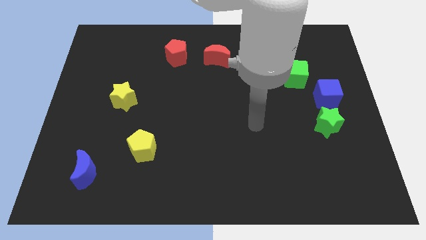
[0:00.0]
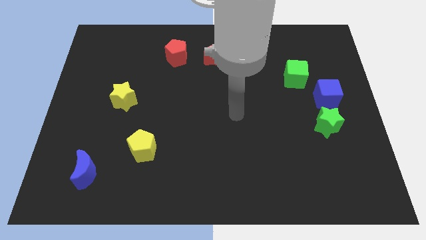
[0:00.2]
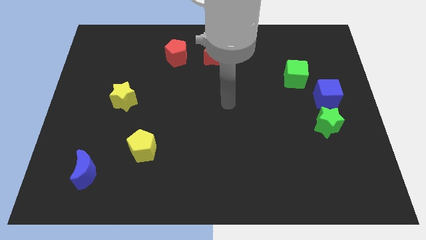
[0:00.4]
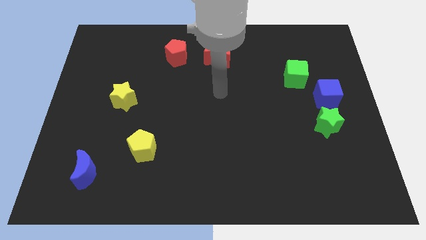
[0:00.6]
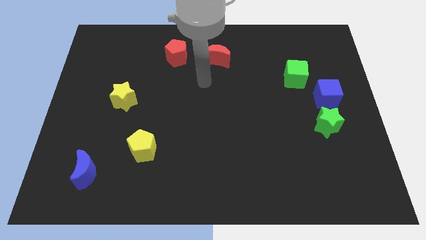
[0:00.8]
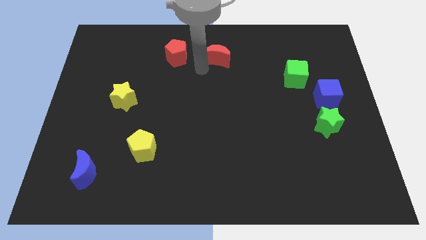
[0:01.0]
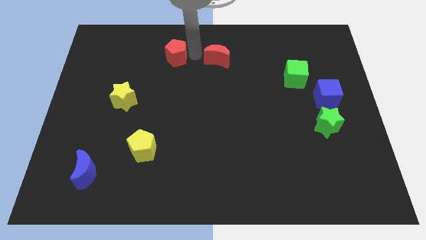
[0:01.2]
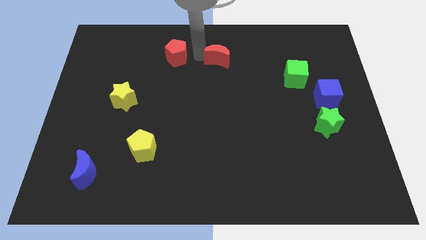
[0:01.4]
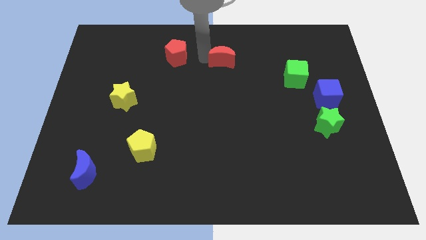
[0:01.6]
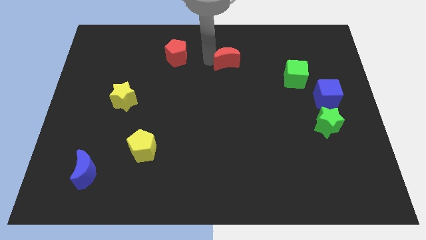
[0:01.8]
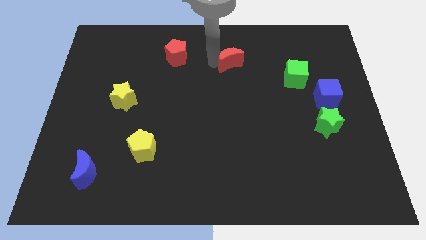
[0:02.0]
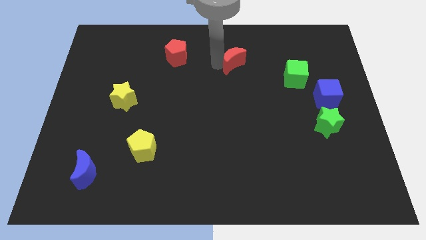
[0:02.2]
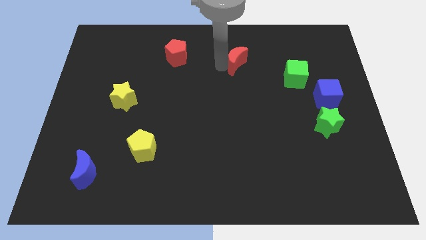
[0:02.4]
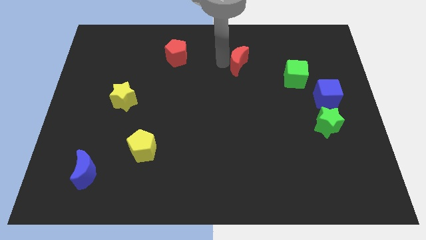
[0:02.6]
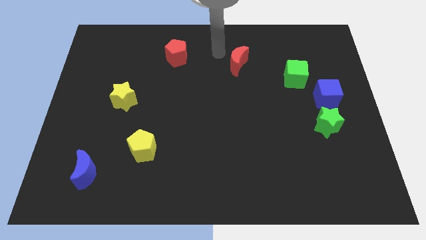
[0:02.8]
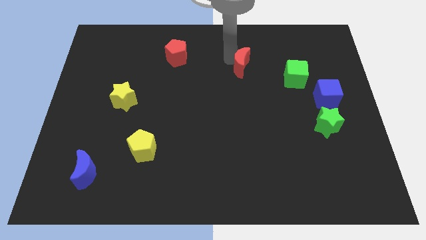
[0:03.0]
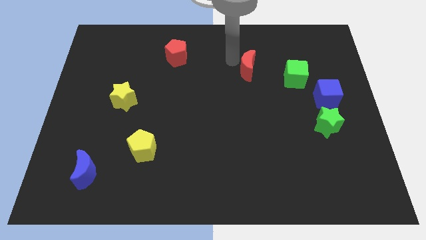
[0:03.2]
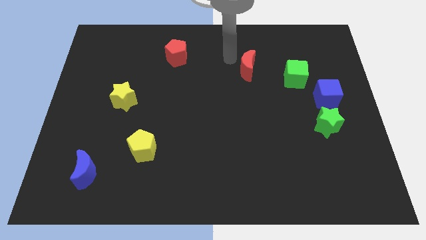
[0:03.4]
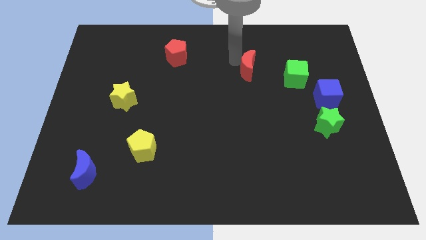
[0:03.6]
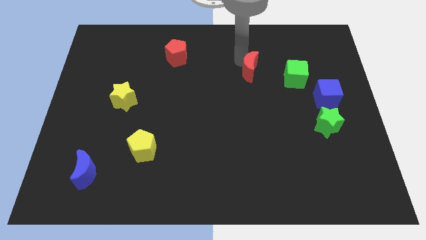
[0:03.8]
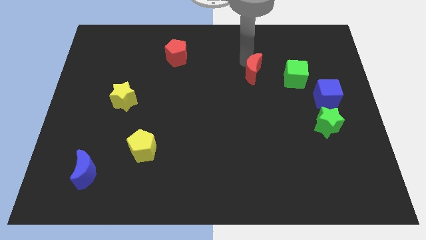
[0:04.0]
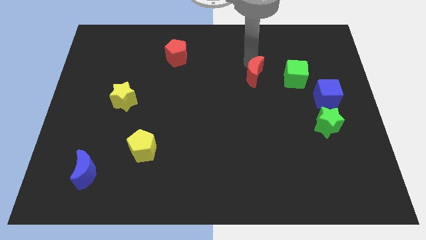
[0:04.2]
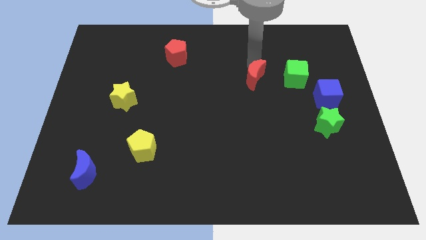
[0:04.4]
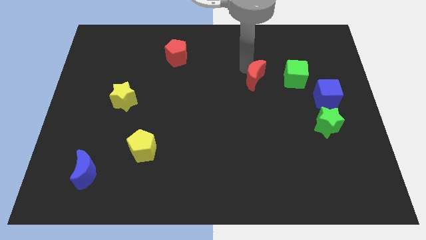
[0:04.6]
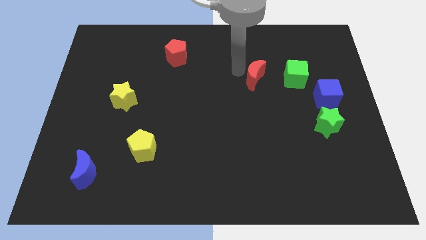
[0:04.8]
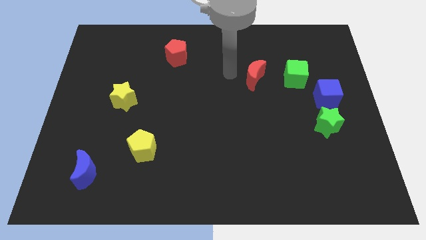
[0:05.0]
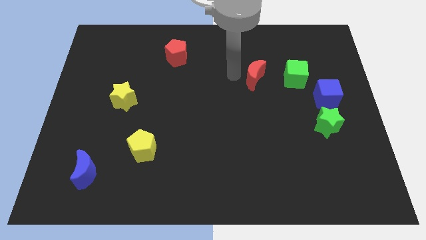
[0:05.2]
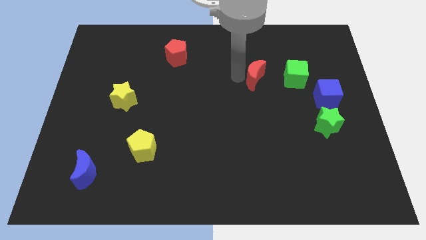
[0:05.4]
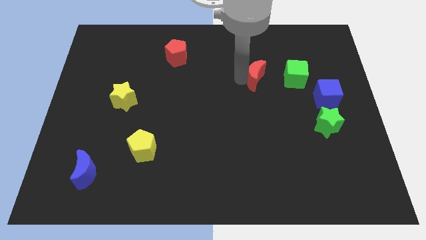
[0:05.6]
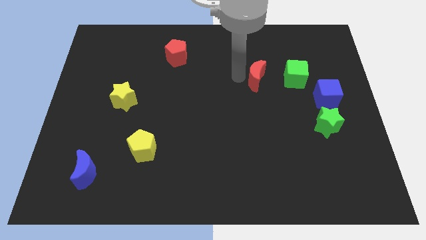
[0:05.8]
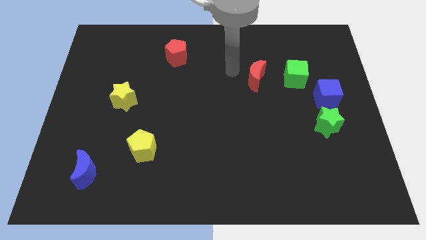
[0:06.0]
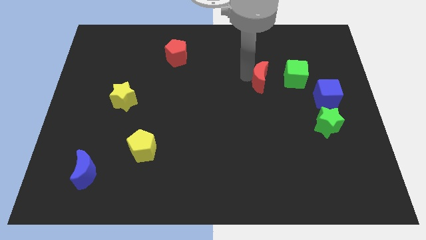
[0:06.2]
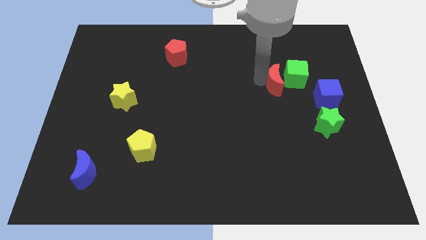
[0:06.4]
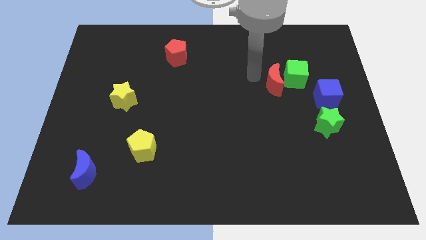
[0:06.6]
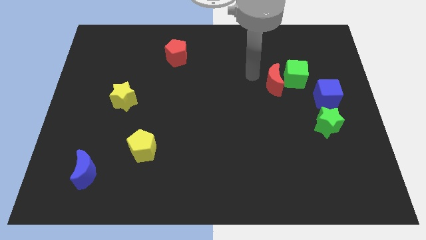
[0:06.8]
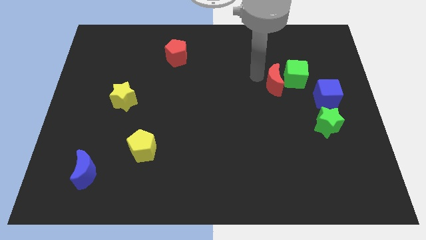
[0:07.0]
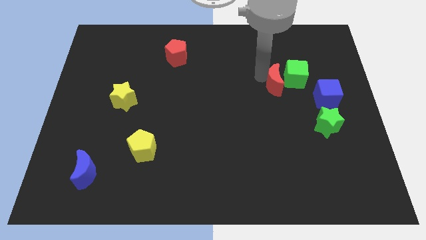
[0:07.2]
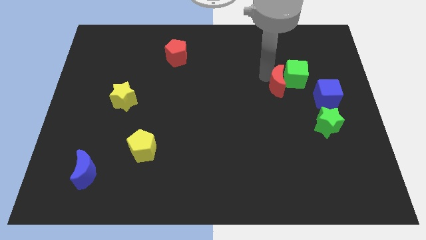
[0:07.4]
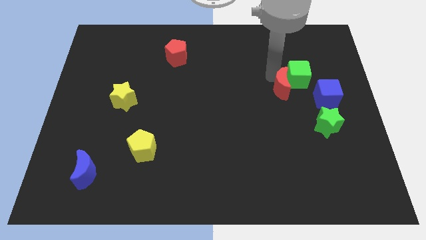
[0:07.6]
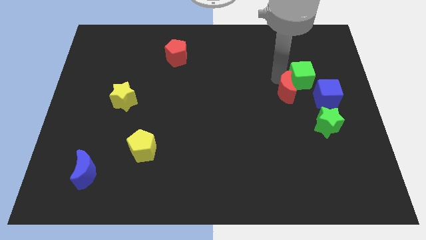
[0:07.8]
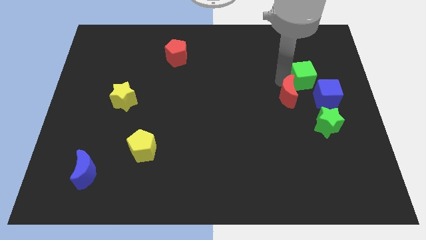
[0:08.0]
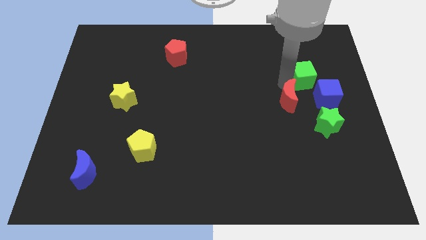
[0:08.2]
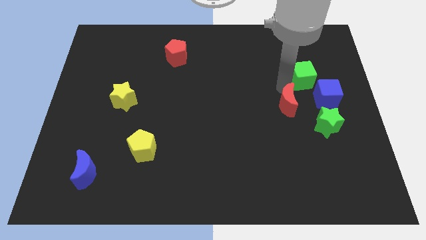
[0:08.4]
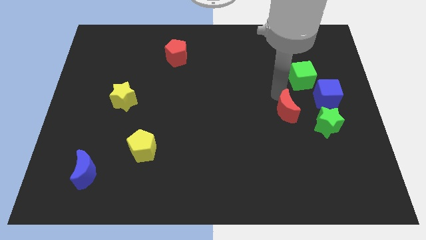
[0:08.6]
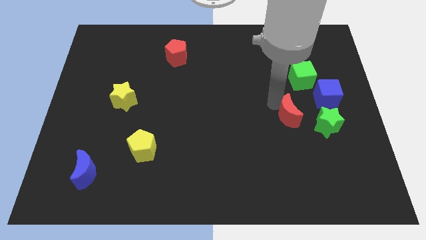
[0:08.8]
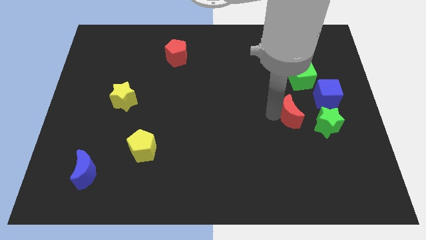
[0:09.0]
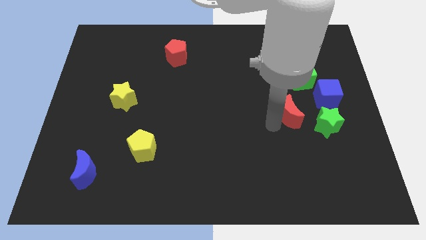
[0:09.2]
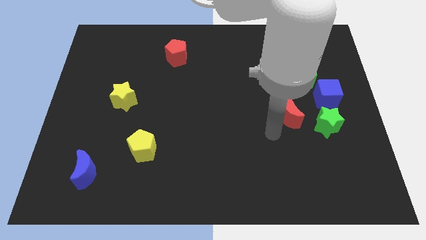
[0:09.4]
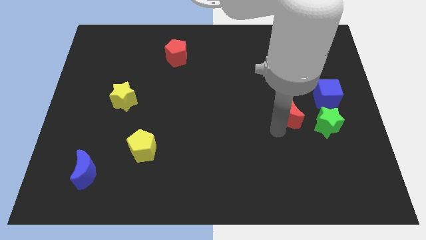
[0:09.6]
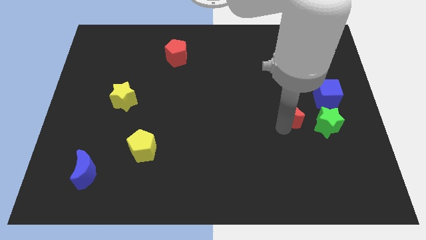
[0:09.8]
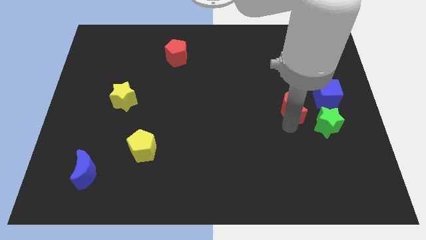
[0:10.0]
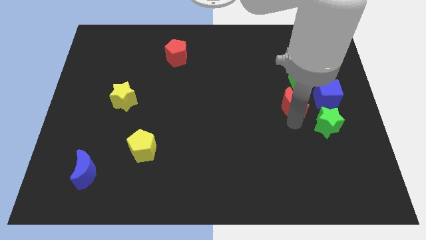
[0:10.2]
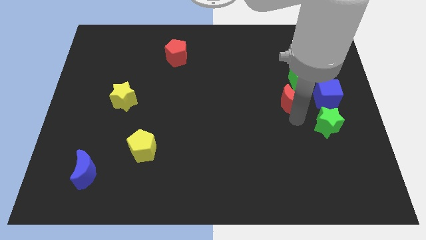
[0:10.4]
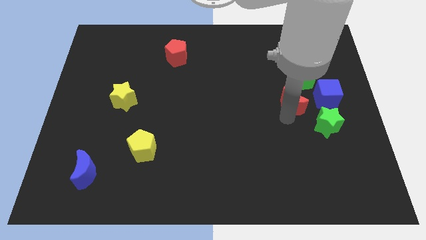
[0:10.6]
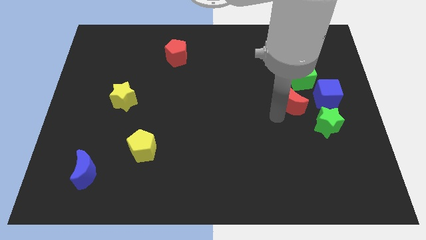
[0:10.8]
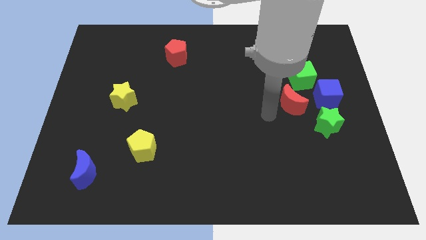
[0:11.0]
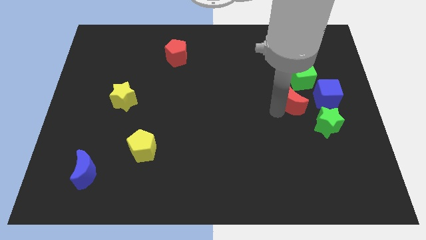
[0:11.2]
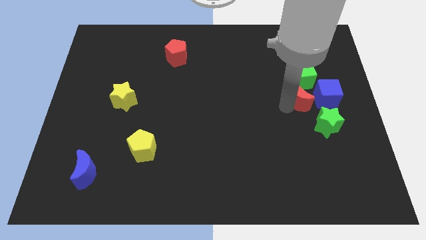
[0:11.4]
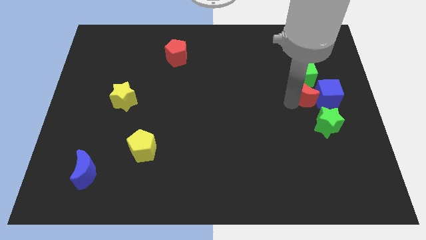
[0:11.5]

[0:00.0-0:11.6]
move the red moon towards the blue cube

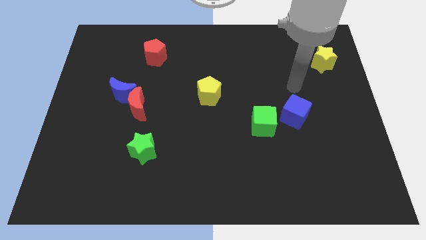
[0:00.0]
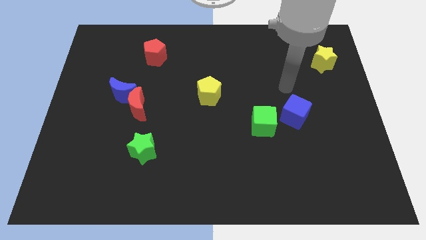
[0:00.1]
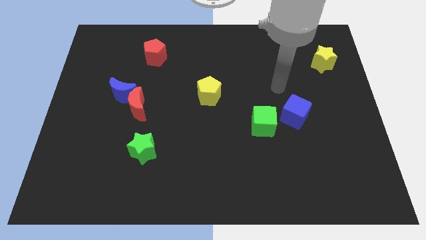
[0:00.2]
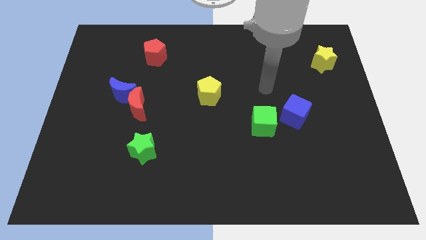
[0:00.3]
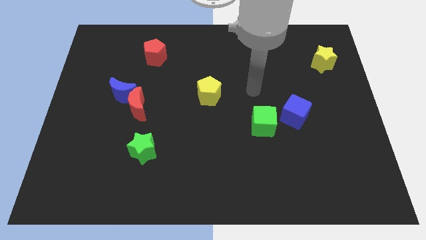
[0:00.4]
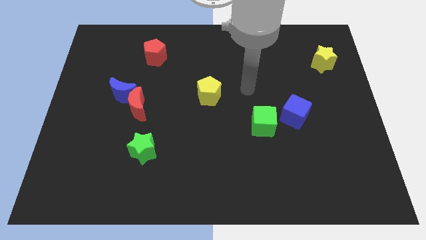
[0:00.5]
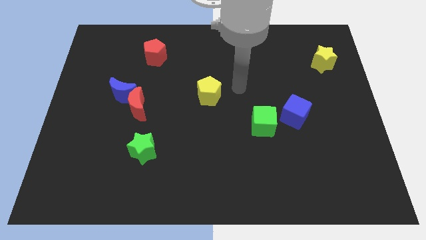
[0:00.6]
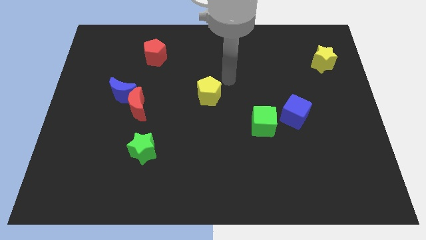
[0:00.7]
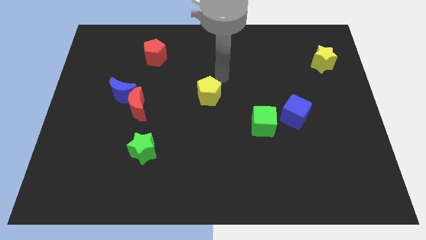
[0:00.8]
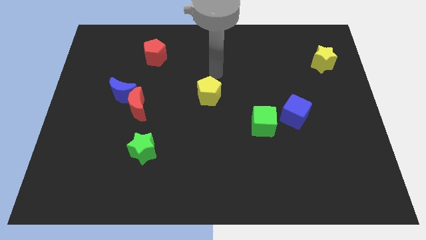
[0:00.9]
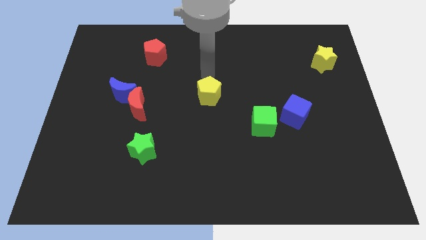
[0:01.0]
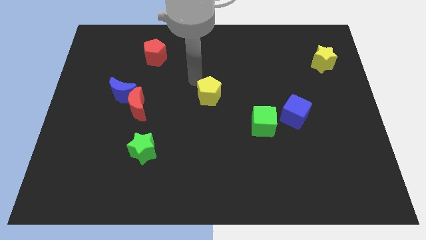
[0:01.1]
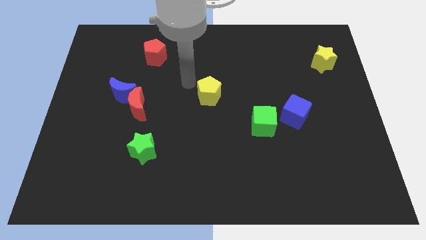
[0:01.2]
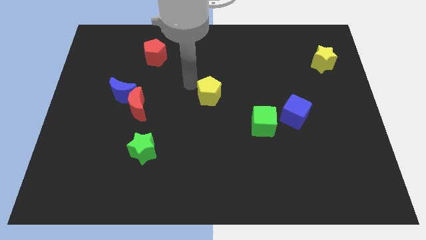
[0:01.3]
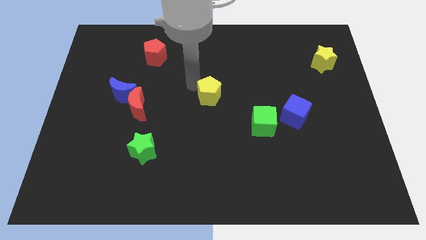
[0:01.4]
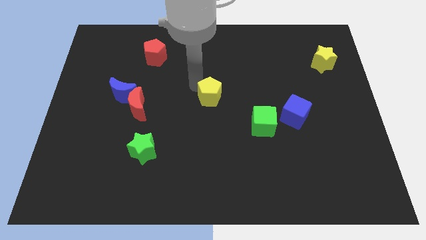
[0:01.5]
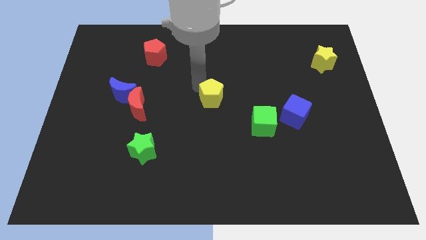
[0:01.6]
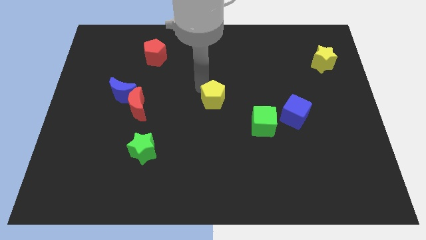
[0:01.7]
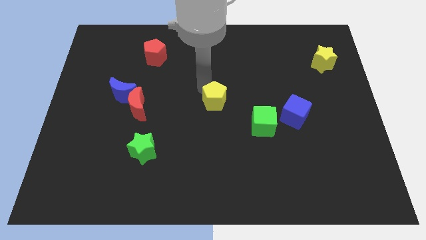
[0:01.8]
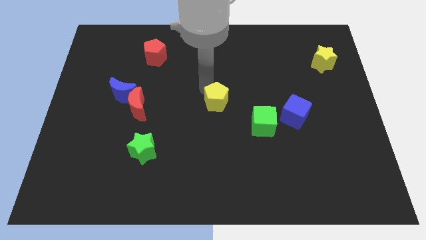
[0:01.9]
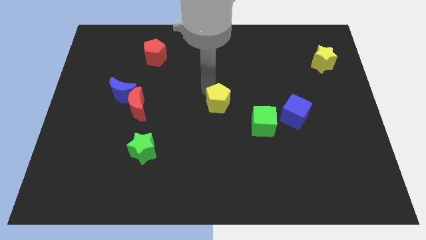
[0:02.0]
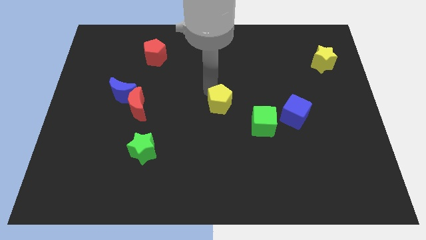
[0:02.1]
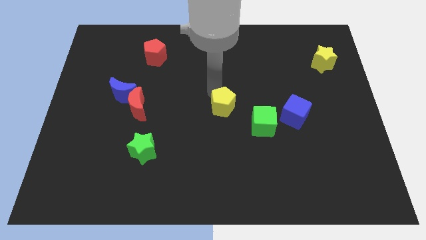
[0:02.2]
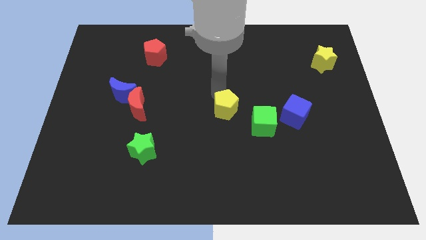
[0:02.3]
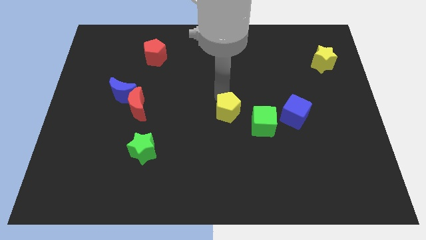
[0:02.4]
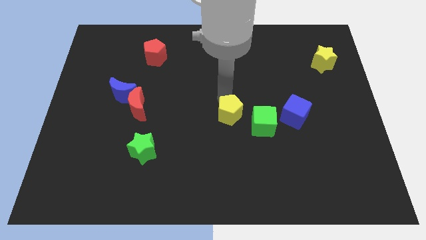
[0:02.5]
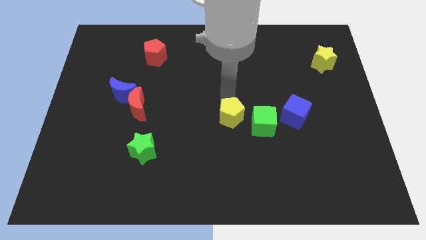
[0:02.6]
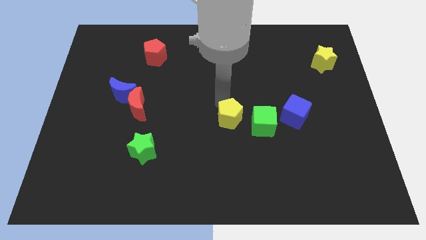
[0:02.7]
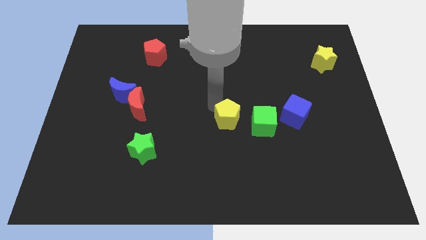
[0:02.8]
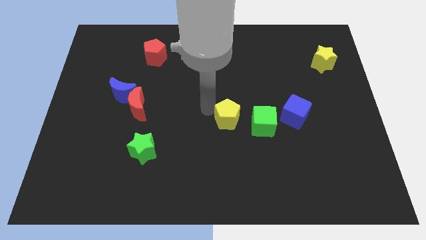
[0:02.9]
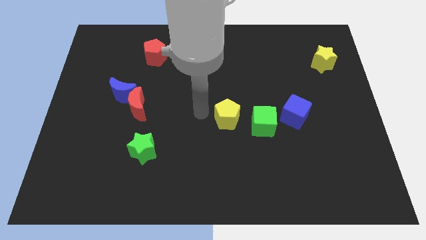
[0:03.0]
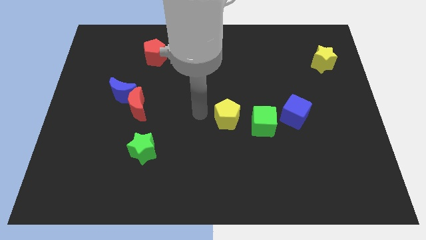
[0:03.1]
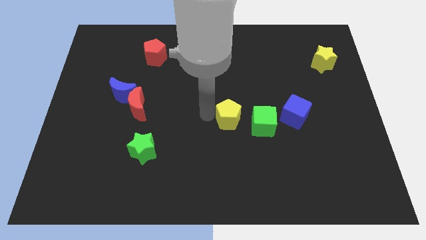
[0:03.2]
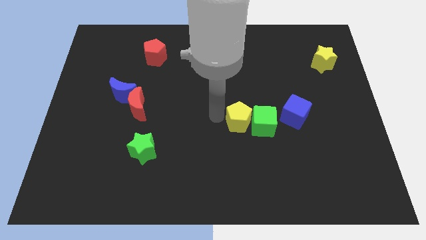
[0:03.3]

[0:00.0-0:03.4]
put the yellow pentagon next to the green cube
